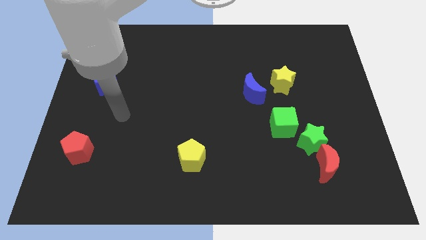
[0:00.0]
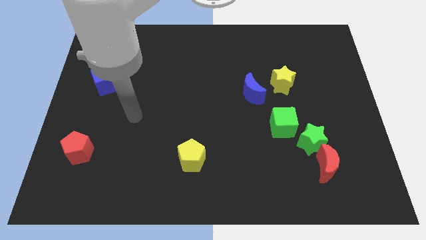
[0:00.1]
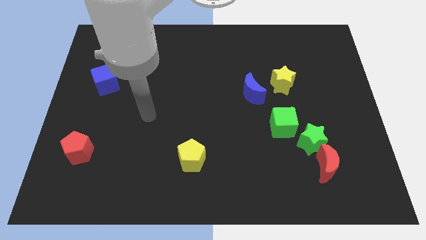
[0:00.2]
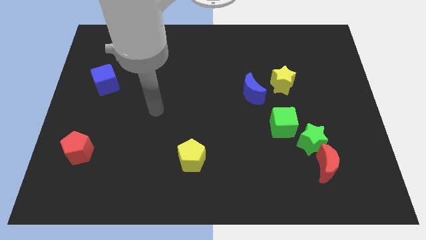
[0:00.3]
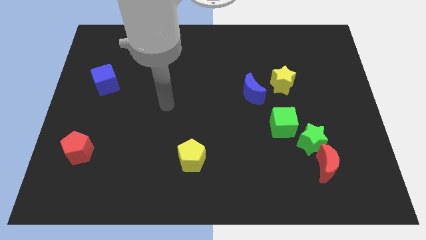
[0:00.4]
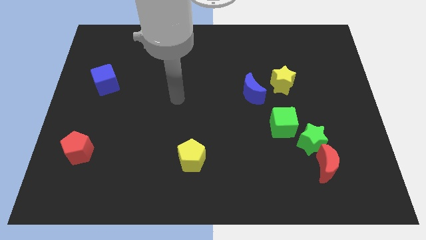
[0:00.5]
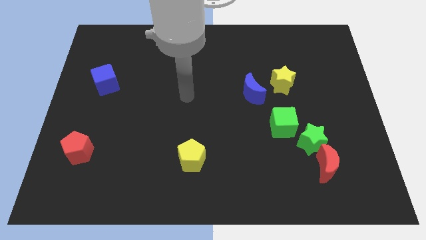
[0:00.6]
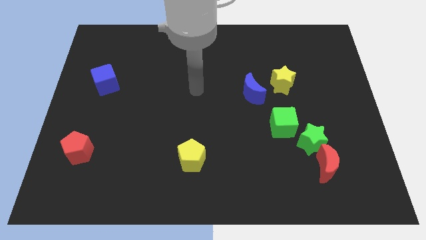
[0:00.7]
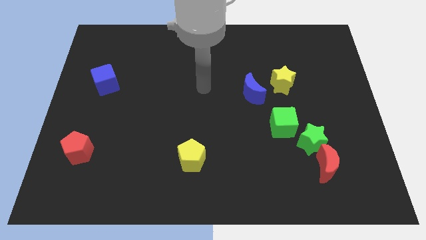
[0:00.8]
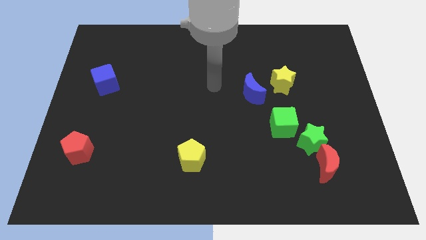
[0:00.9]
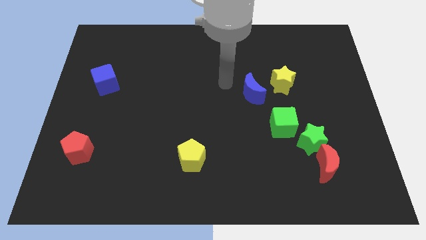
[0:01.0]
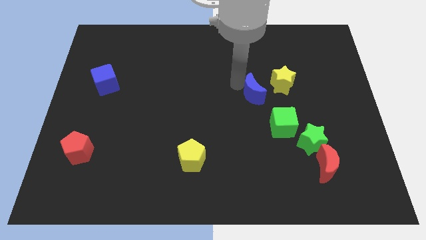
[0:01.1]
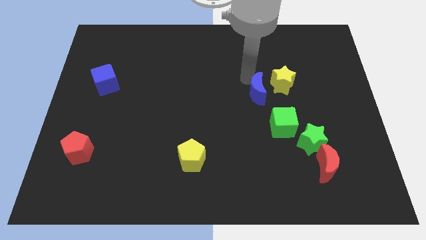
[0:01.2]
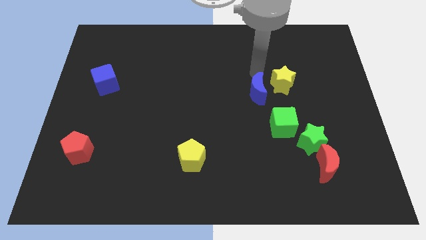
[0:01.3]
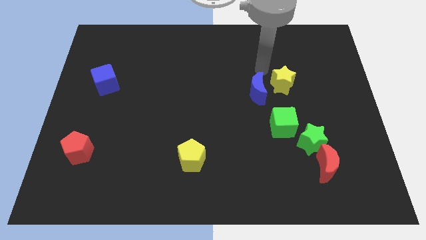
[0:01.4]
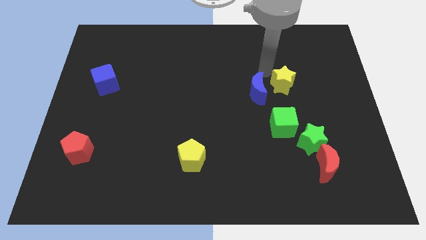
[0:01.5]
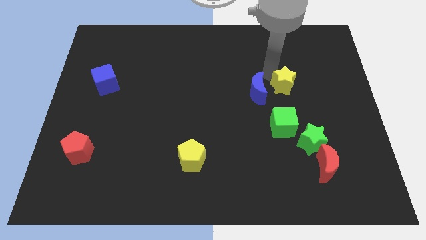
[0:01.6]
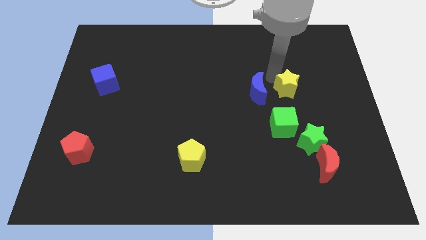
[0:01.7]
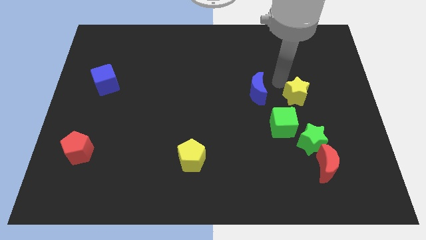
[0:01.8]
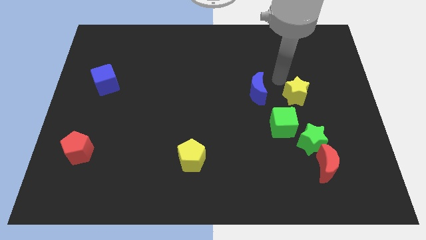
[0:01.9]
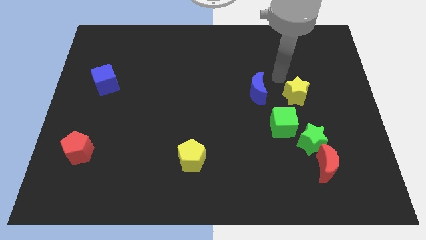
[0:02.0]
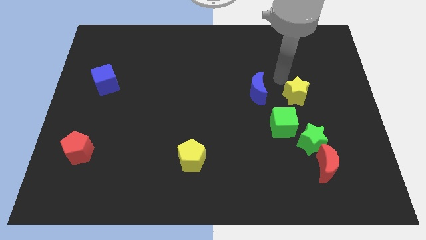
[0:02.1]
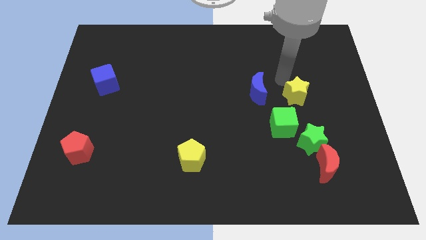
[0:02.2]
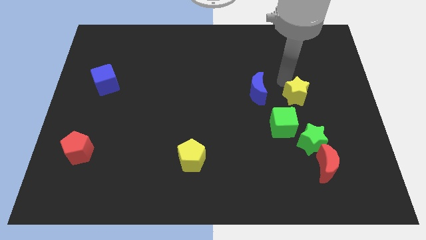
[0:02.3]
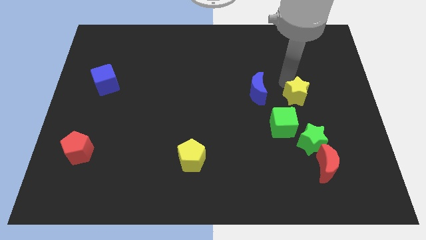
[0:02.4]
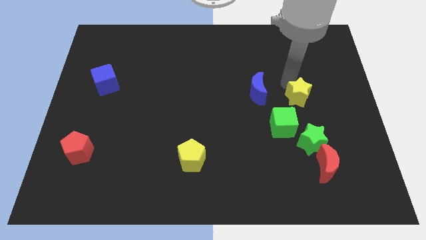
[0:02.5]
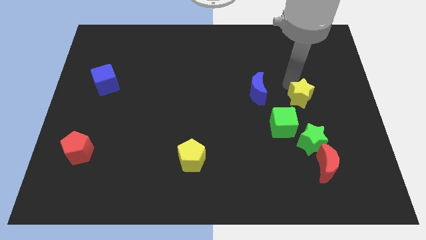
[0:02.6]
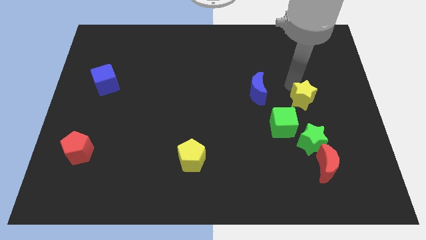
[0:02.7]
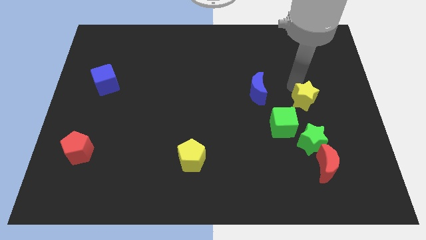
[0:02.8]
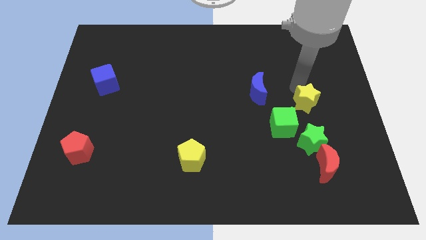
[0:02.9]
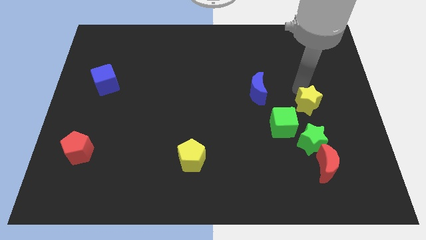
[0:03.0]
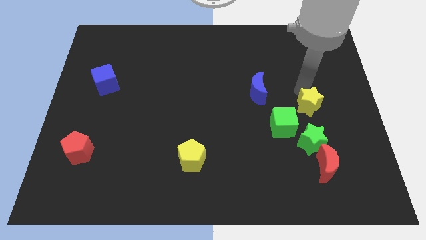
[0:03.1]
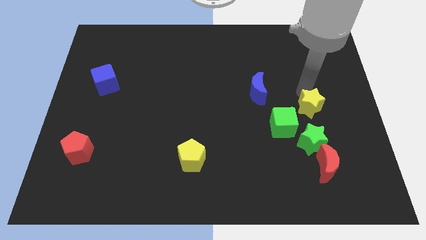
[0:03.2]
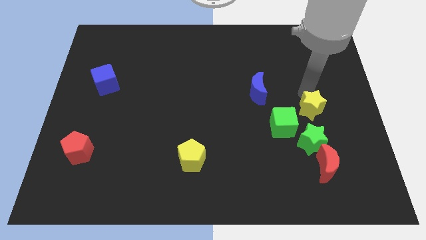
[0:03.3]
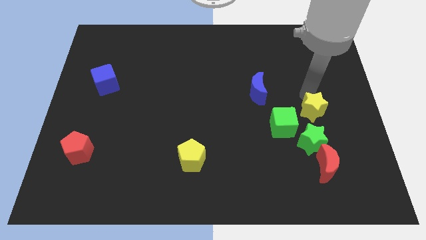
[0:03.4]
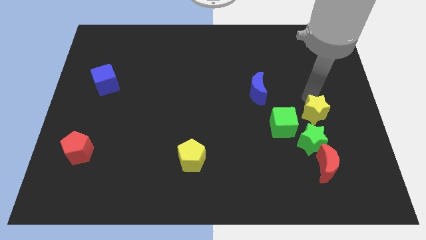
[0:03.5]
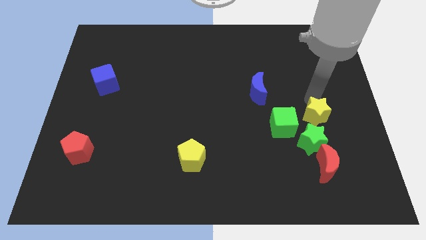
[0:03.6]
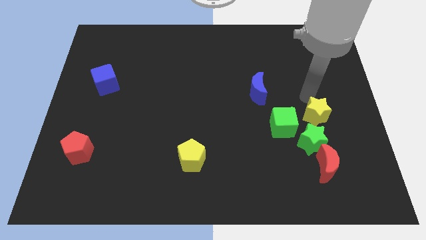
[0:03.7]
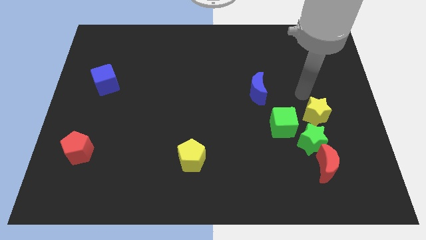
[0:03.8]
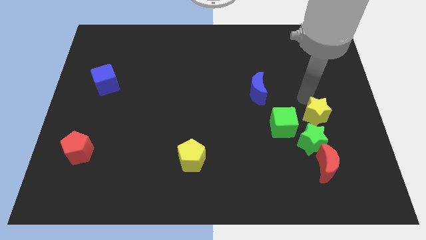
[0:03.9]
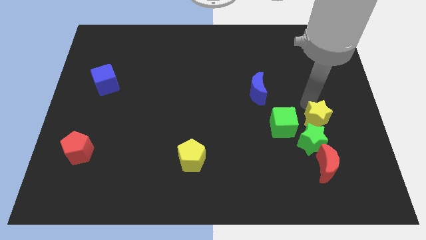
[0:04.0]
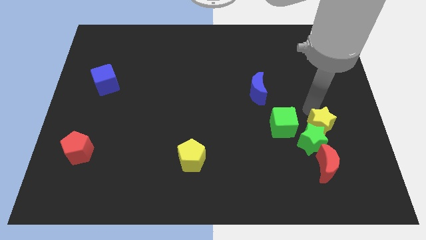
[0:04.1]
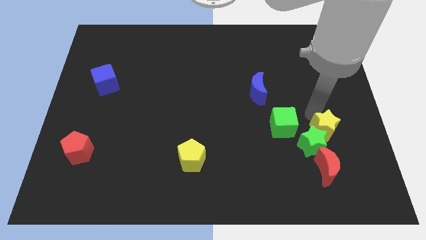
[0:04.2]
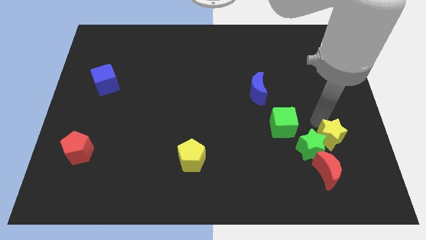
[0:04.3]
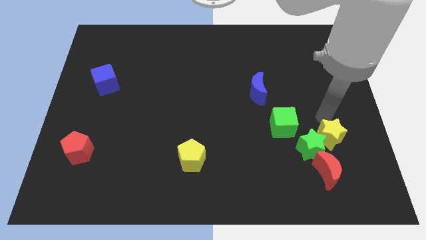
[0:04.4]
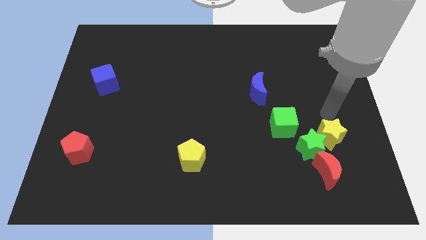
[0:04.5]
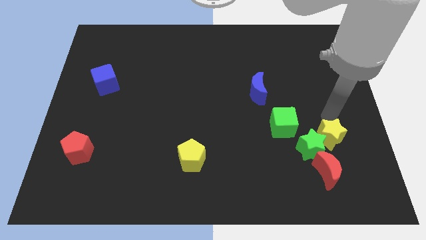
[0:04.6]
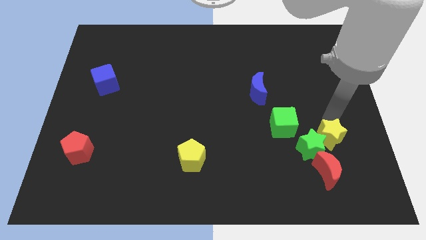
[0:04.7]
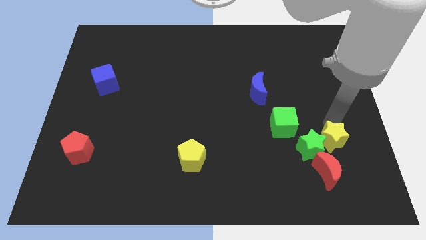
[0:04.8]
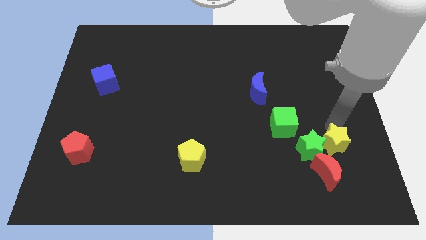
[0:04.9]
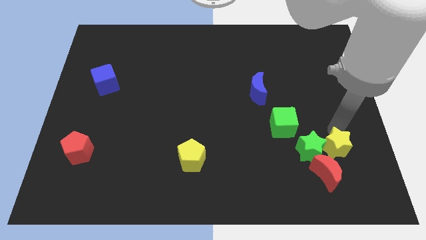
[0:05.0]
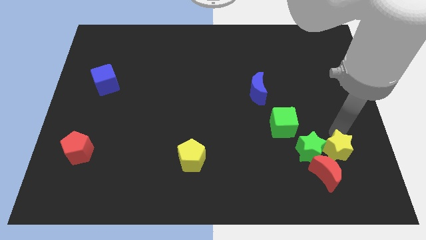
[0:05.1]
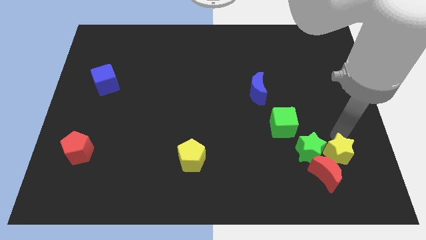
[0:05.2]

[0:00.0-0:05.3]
put the yellow star towards the red moon

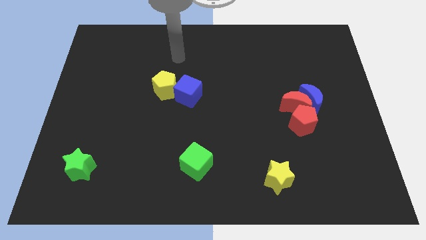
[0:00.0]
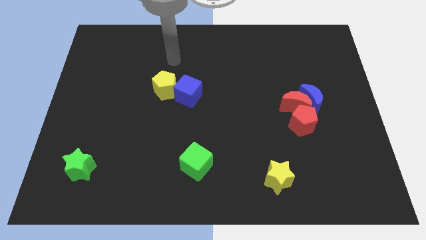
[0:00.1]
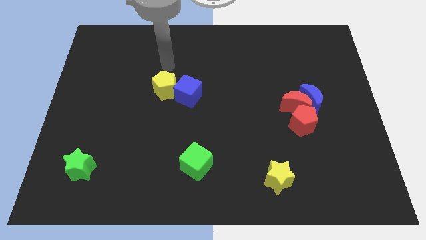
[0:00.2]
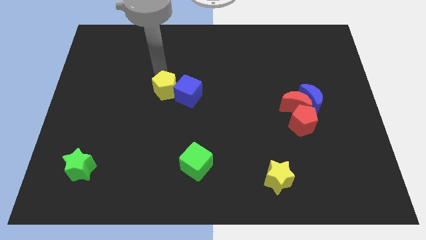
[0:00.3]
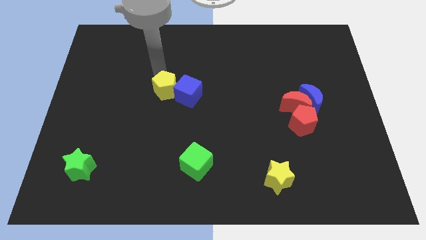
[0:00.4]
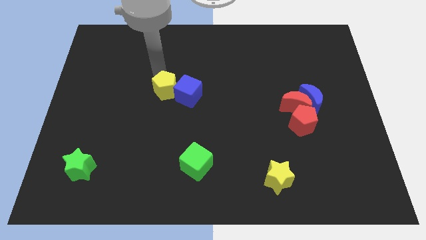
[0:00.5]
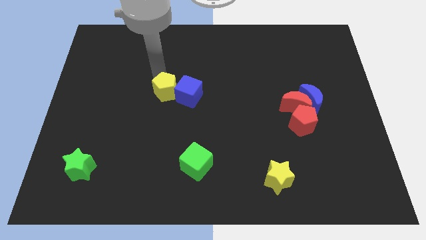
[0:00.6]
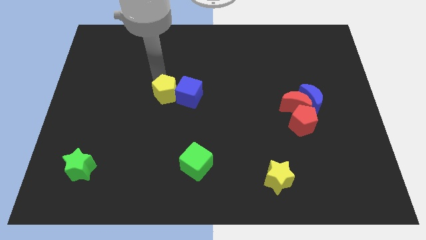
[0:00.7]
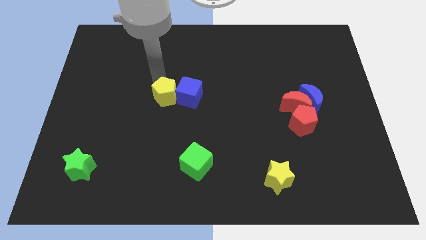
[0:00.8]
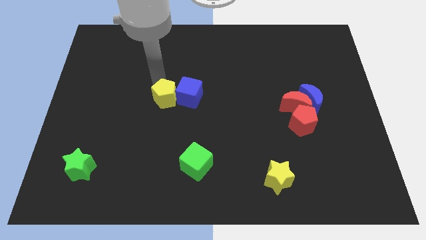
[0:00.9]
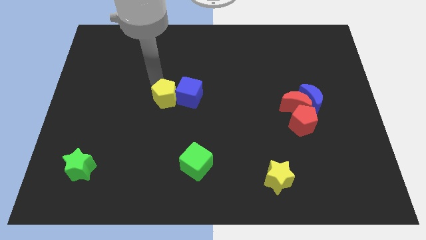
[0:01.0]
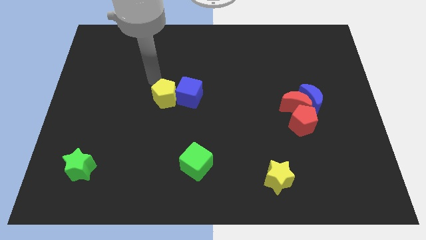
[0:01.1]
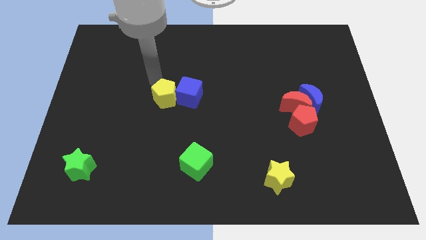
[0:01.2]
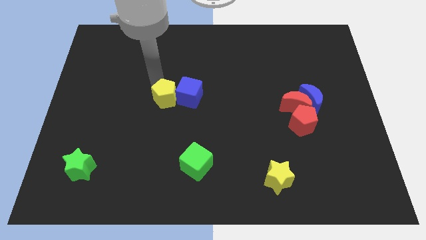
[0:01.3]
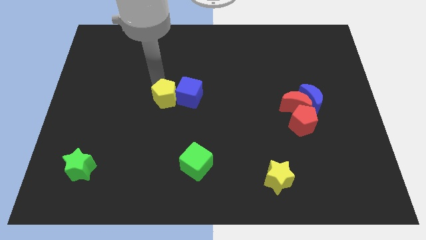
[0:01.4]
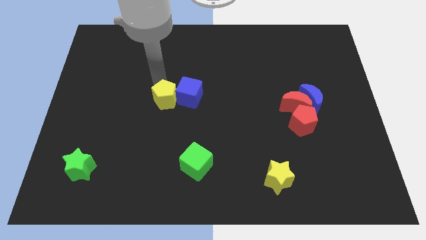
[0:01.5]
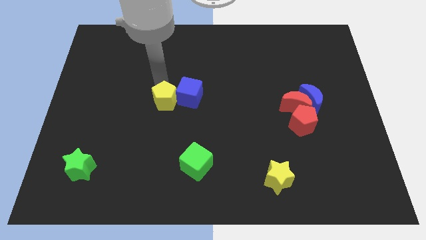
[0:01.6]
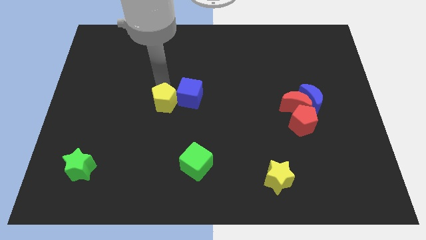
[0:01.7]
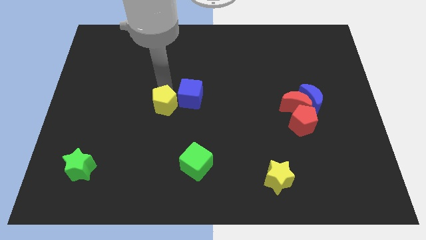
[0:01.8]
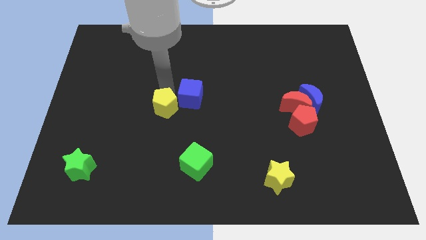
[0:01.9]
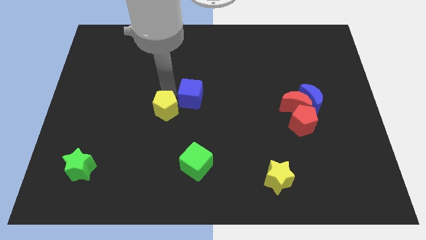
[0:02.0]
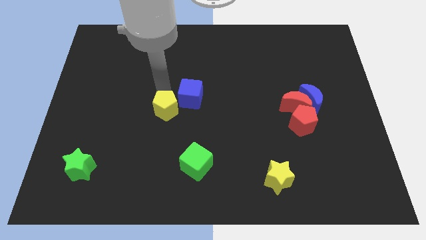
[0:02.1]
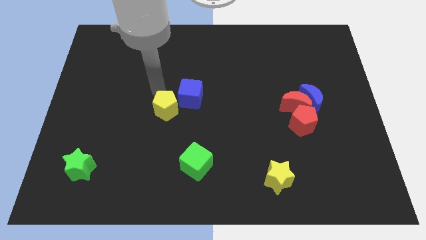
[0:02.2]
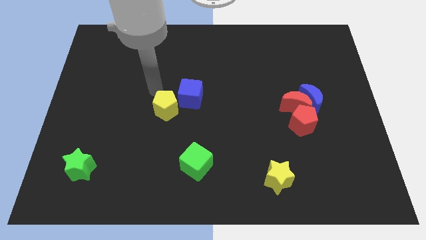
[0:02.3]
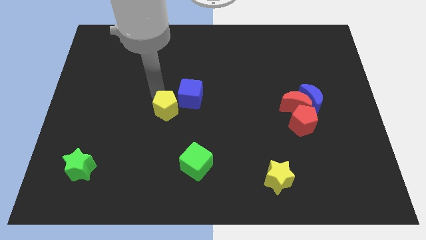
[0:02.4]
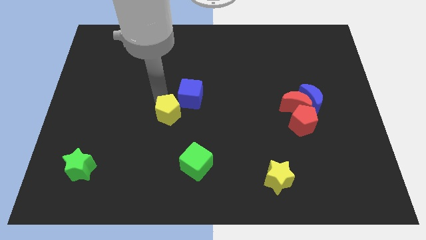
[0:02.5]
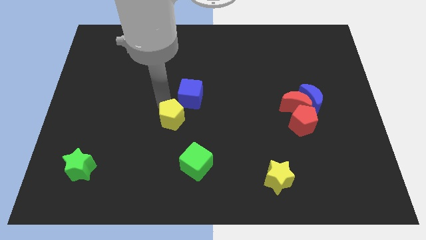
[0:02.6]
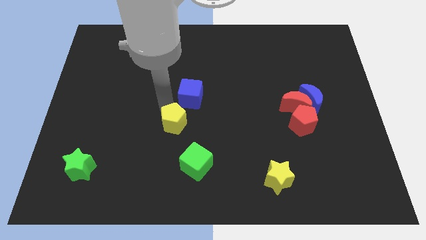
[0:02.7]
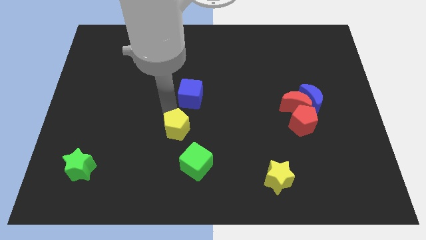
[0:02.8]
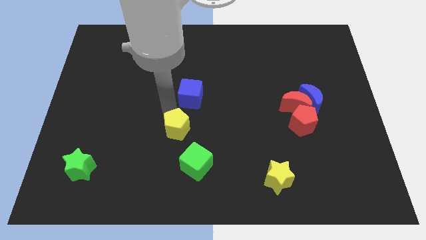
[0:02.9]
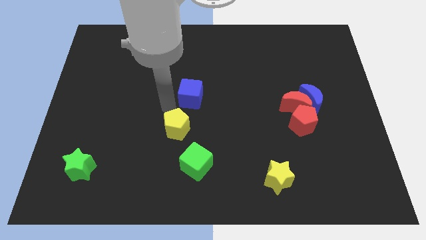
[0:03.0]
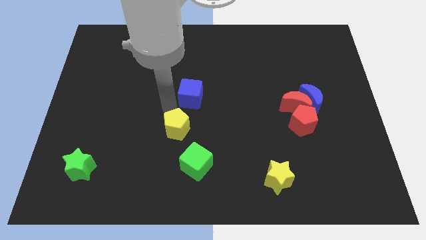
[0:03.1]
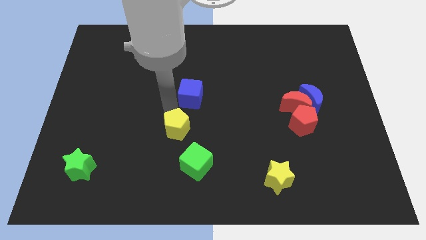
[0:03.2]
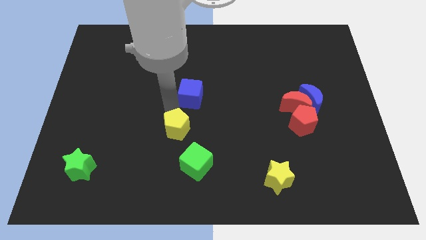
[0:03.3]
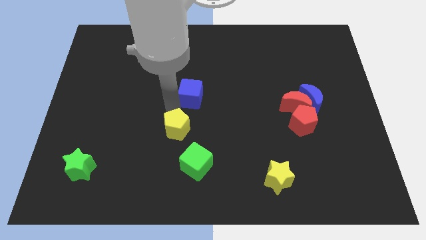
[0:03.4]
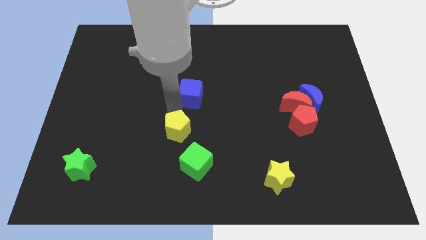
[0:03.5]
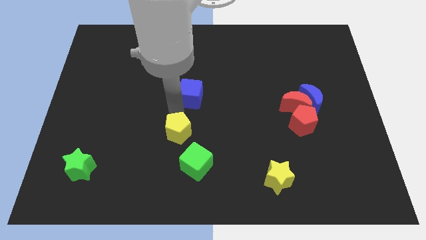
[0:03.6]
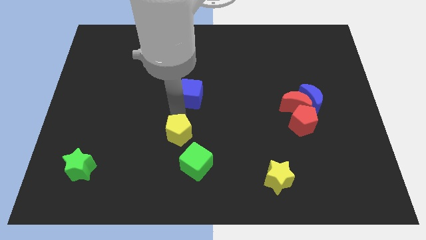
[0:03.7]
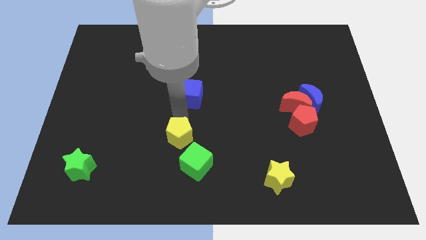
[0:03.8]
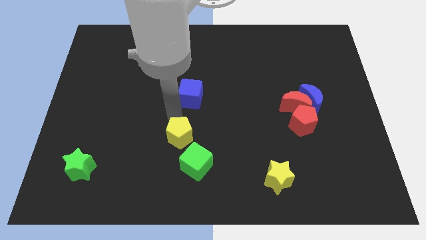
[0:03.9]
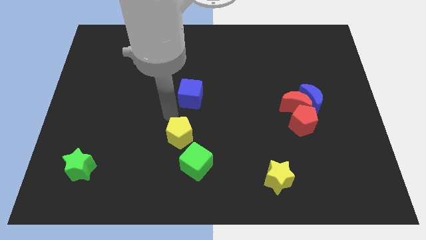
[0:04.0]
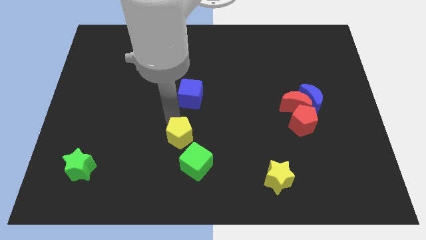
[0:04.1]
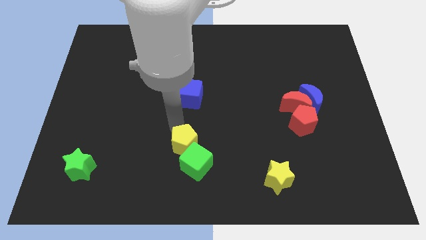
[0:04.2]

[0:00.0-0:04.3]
move the yellow pentagon next to the green cube
